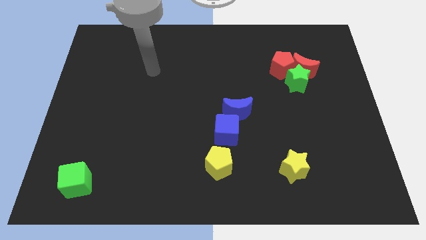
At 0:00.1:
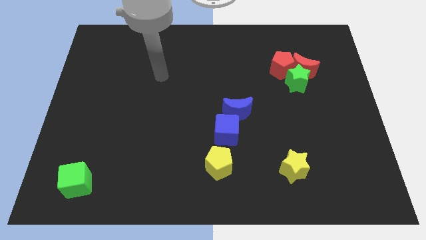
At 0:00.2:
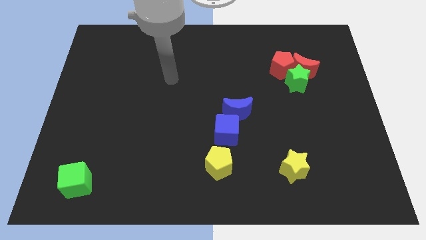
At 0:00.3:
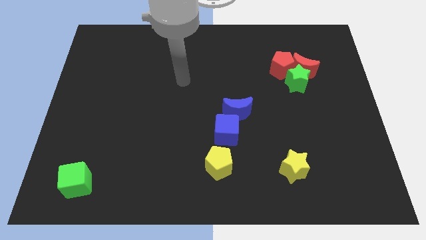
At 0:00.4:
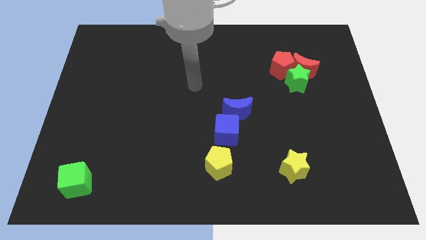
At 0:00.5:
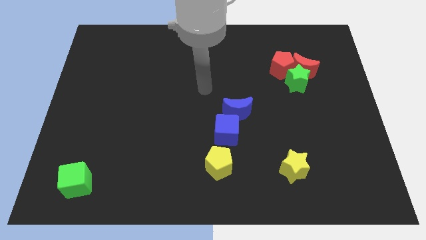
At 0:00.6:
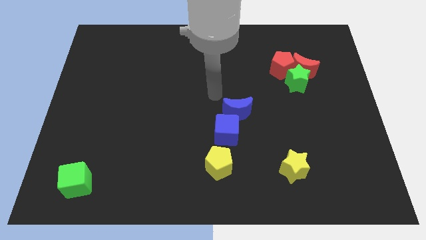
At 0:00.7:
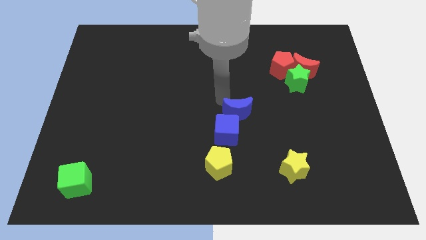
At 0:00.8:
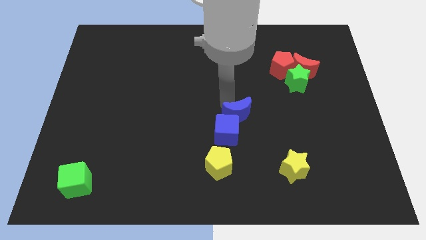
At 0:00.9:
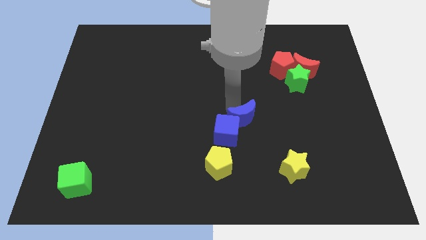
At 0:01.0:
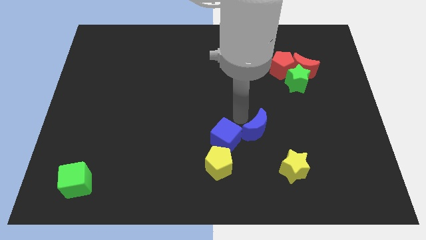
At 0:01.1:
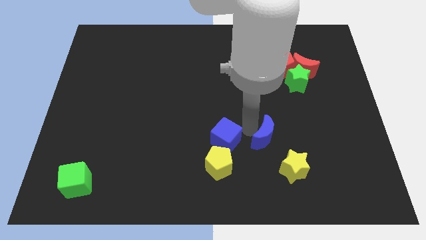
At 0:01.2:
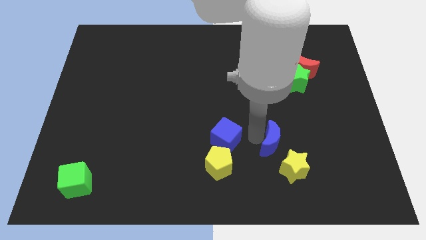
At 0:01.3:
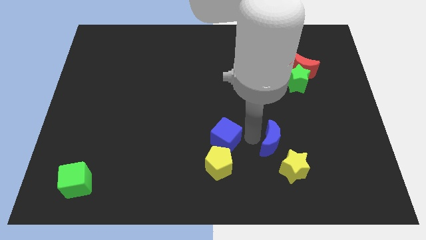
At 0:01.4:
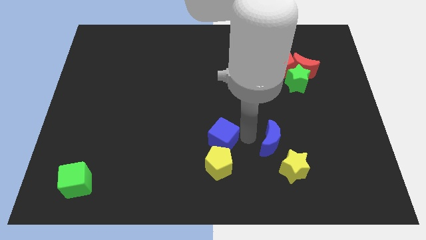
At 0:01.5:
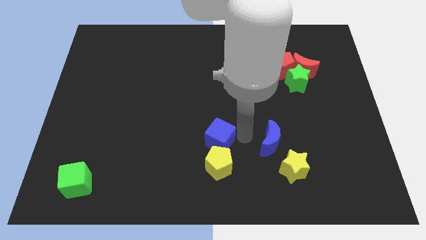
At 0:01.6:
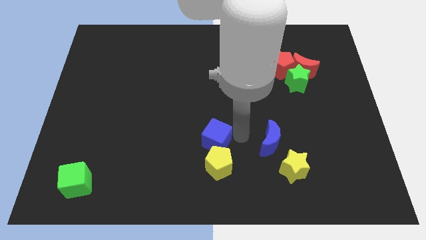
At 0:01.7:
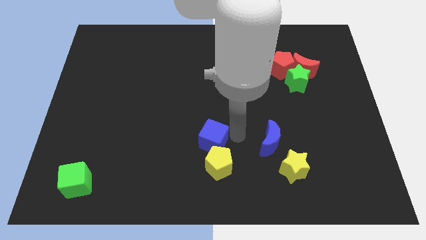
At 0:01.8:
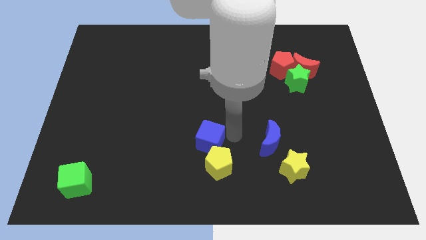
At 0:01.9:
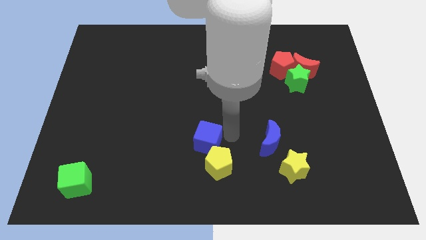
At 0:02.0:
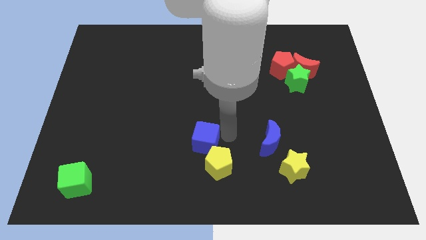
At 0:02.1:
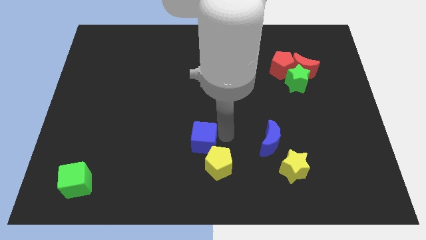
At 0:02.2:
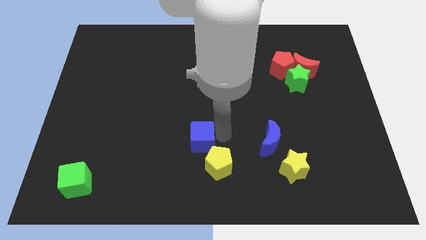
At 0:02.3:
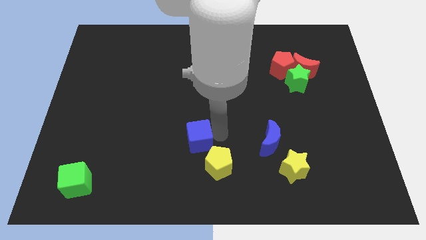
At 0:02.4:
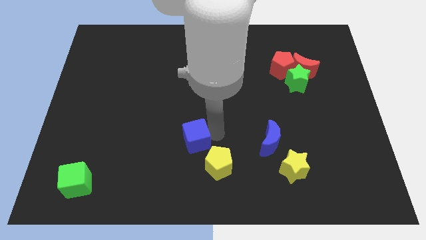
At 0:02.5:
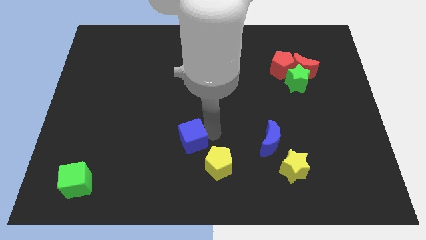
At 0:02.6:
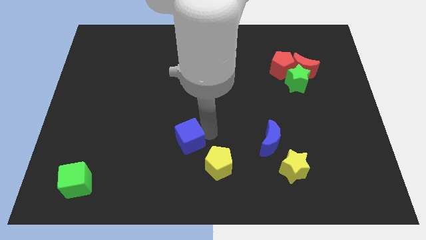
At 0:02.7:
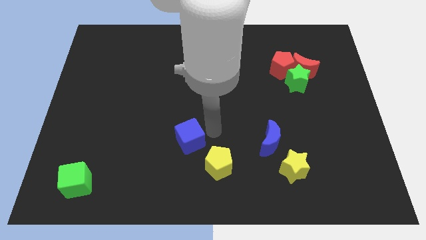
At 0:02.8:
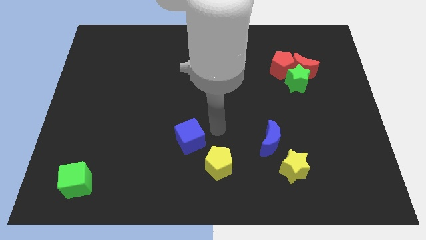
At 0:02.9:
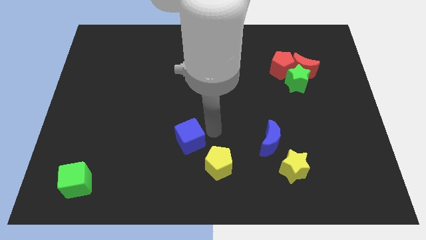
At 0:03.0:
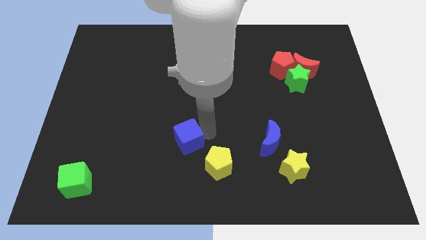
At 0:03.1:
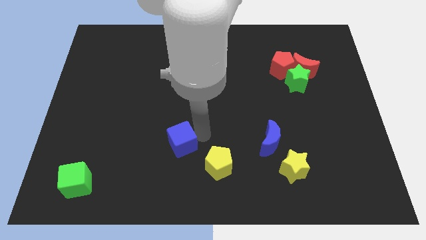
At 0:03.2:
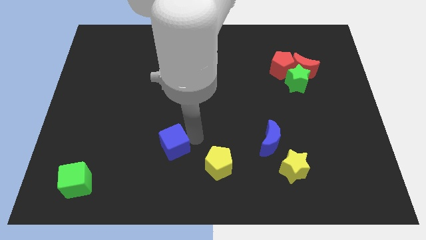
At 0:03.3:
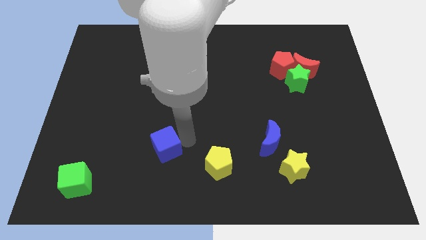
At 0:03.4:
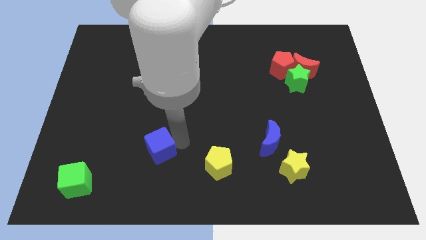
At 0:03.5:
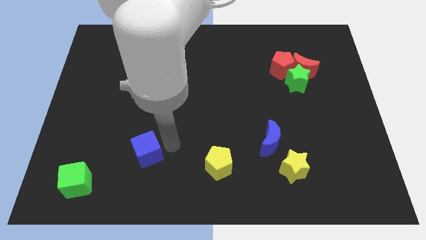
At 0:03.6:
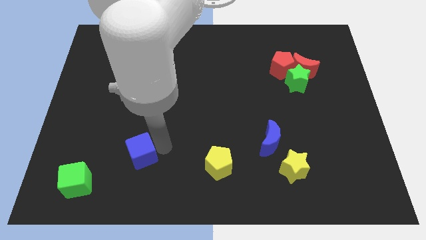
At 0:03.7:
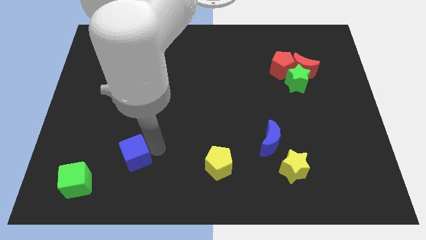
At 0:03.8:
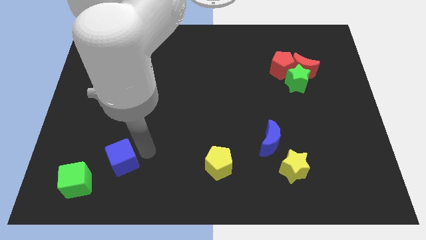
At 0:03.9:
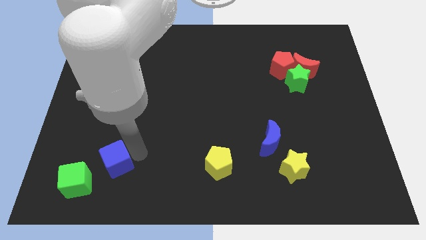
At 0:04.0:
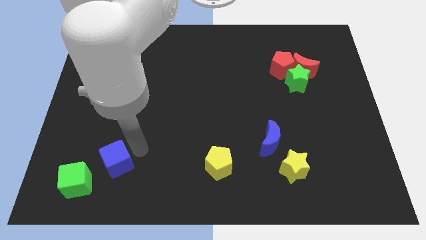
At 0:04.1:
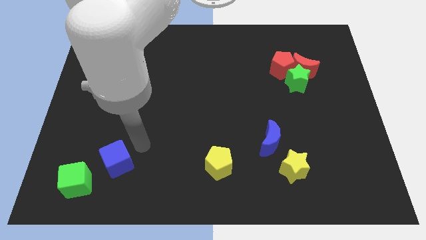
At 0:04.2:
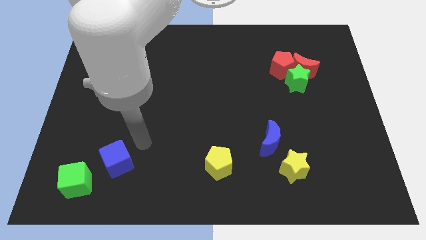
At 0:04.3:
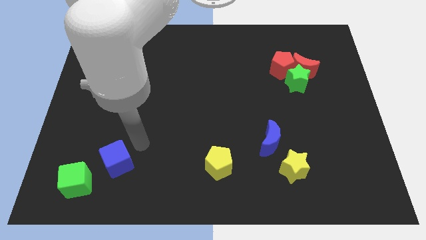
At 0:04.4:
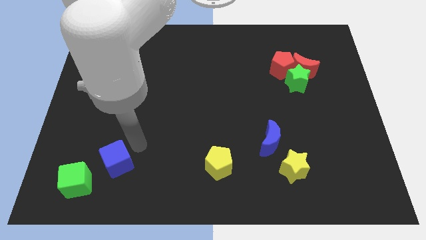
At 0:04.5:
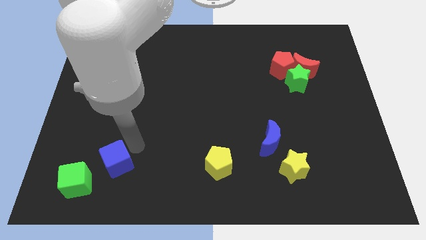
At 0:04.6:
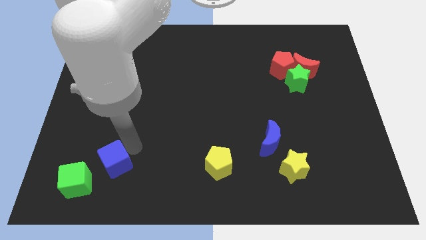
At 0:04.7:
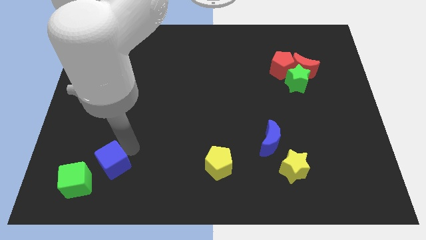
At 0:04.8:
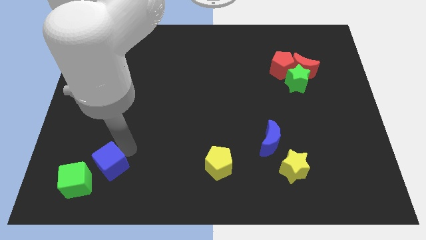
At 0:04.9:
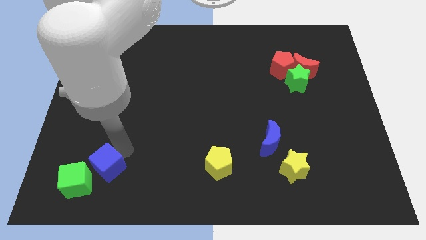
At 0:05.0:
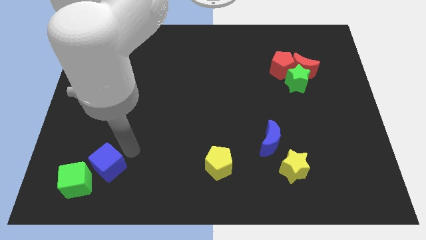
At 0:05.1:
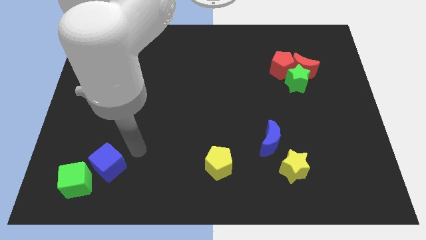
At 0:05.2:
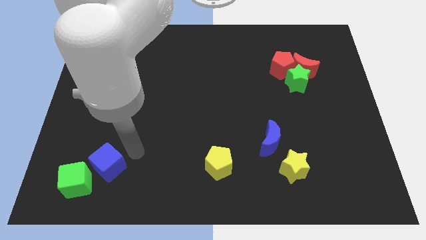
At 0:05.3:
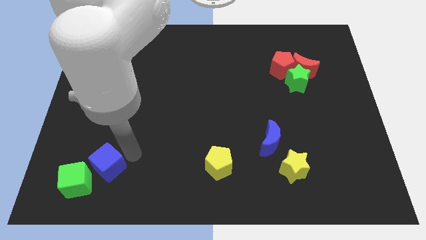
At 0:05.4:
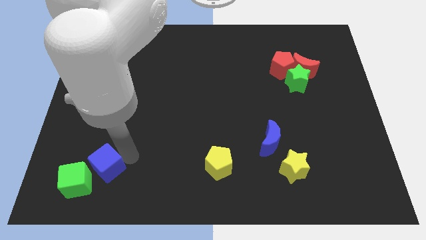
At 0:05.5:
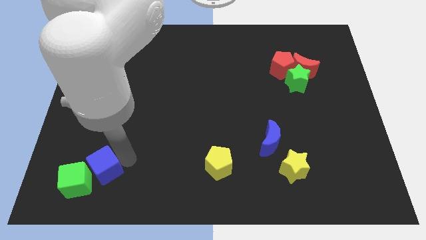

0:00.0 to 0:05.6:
push the blue cube close to the green cube

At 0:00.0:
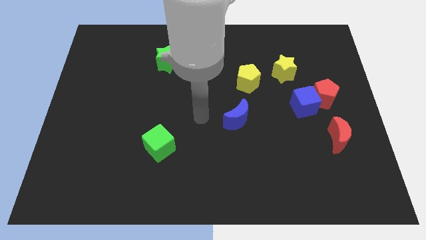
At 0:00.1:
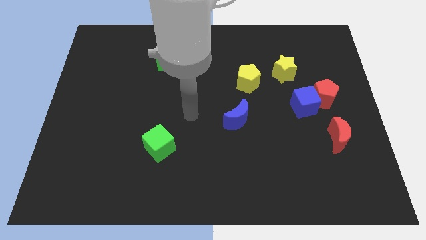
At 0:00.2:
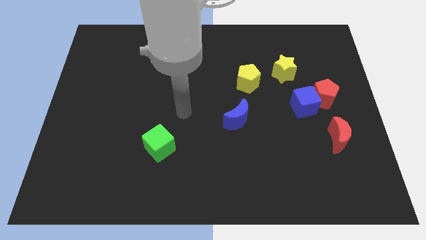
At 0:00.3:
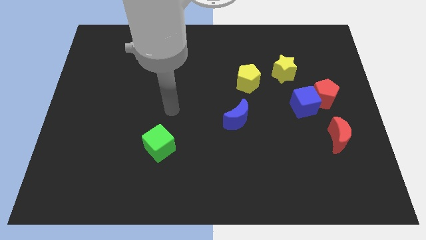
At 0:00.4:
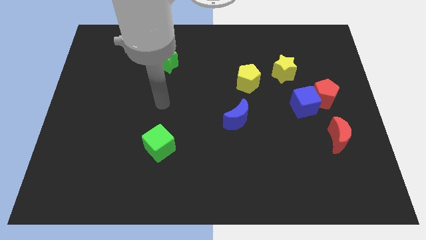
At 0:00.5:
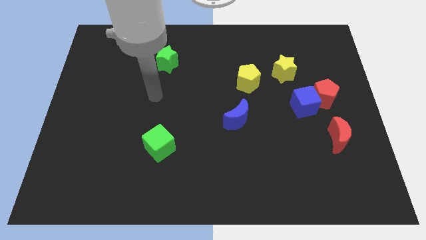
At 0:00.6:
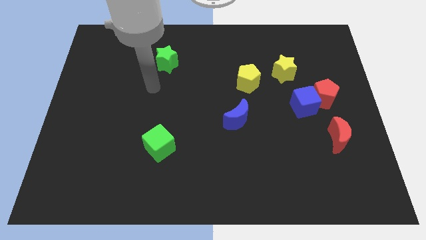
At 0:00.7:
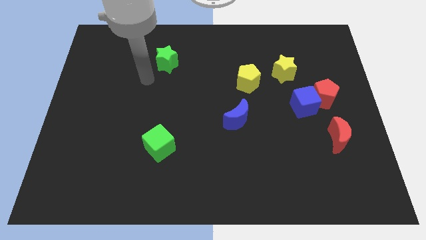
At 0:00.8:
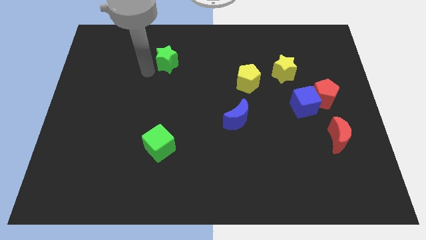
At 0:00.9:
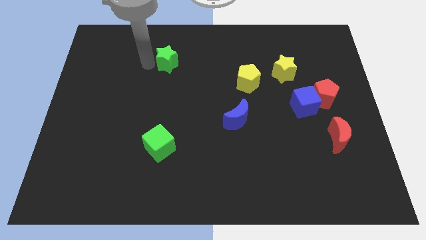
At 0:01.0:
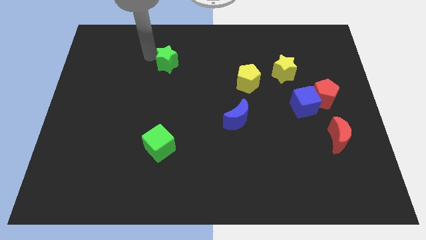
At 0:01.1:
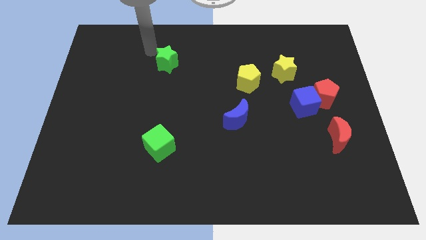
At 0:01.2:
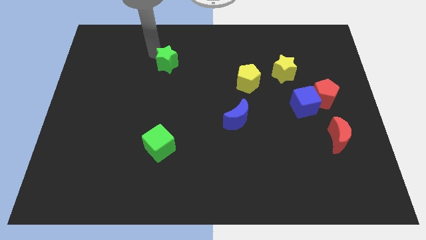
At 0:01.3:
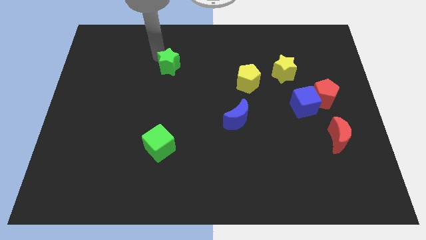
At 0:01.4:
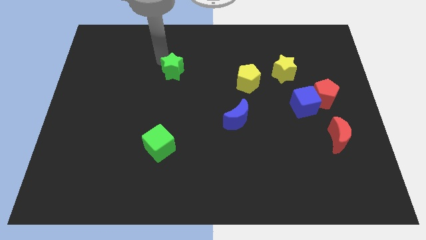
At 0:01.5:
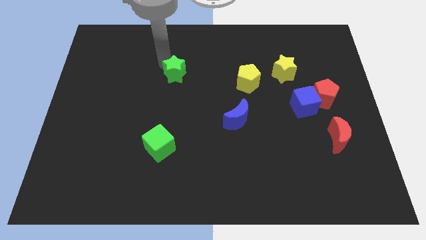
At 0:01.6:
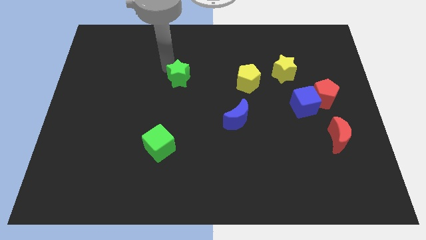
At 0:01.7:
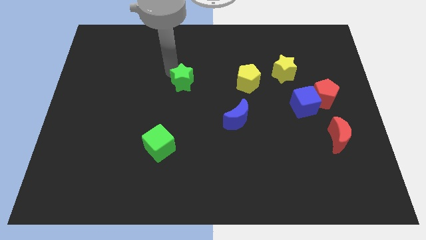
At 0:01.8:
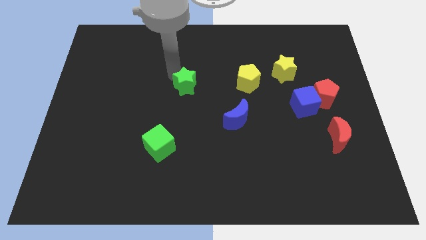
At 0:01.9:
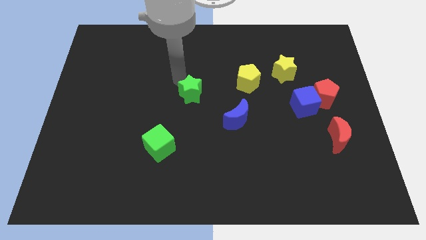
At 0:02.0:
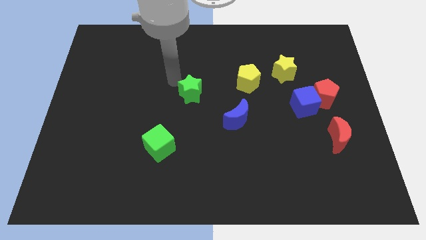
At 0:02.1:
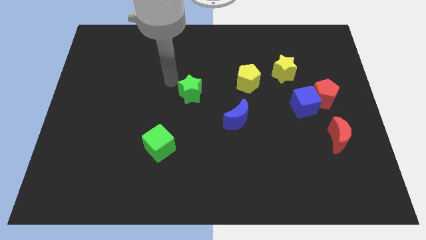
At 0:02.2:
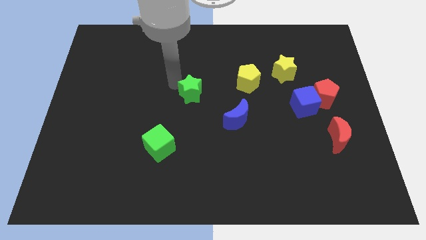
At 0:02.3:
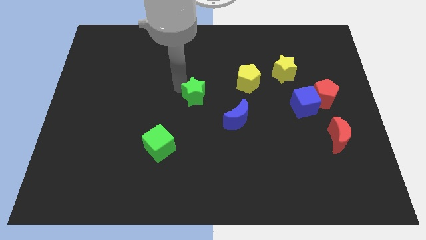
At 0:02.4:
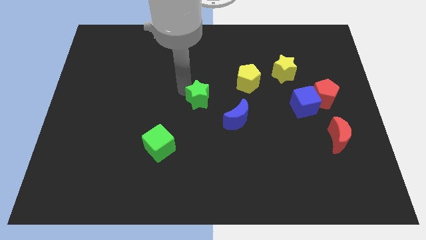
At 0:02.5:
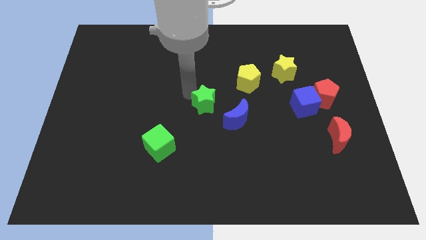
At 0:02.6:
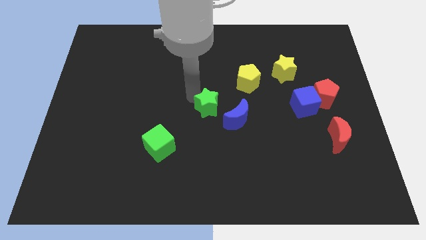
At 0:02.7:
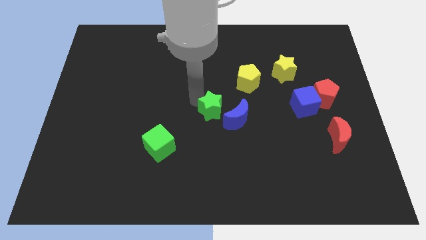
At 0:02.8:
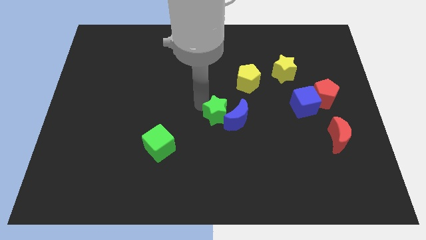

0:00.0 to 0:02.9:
slide the green star towards the blue moon
